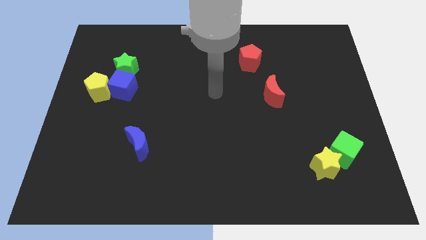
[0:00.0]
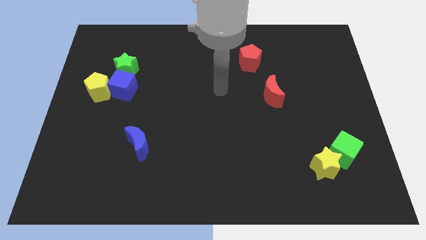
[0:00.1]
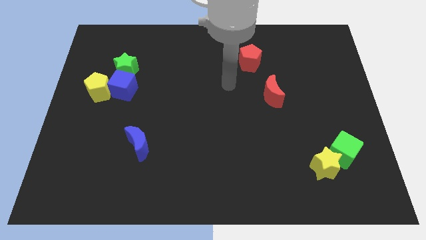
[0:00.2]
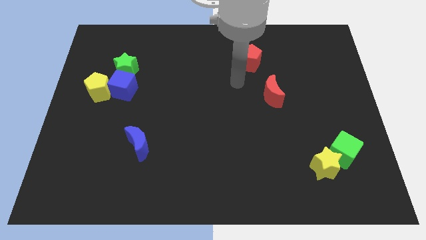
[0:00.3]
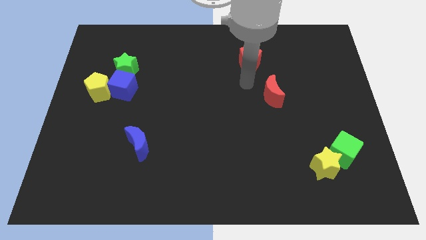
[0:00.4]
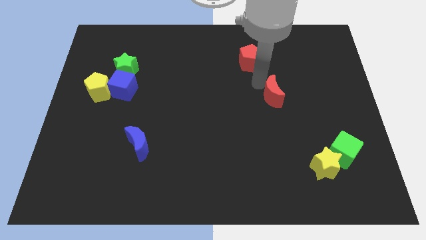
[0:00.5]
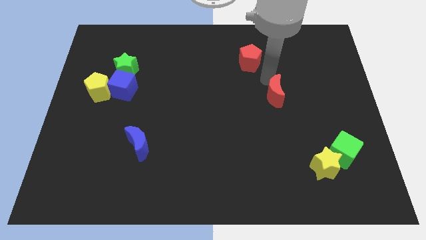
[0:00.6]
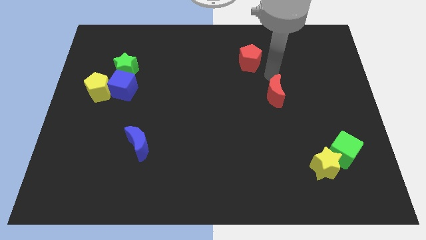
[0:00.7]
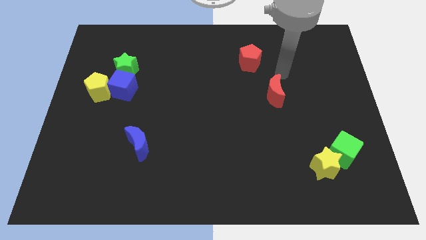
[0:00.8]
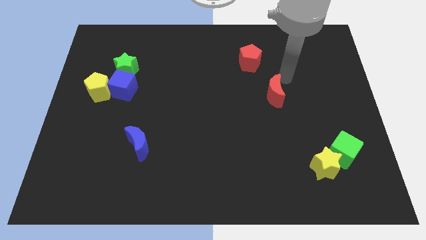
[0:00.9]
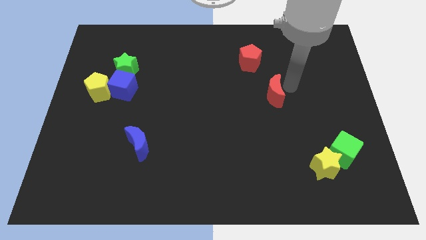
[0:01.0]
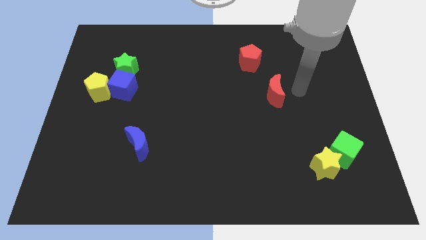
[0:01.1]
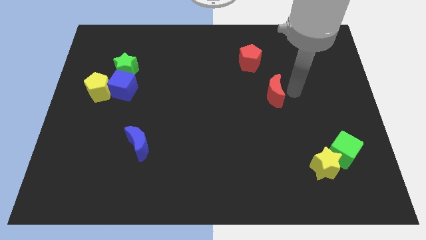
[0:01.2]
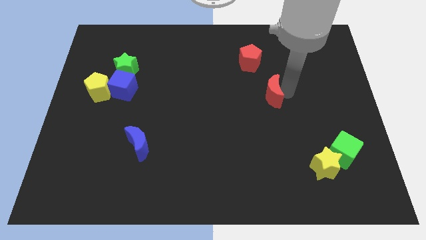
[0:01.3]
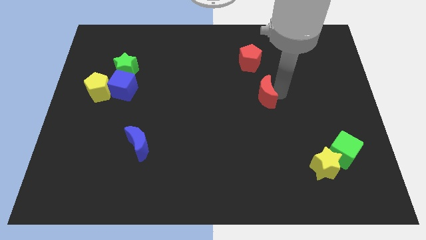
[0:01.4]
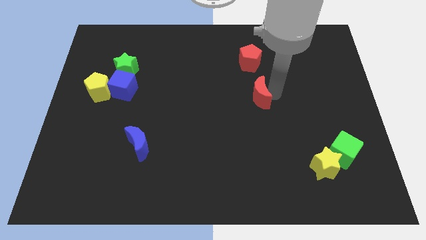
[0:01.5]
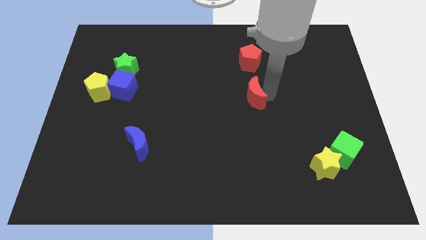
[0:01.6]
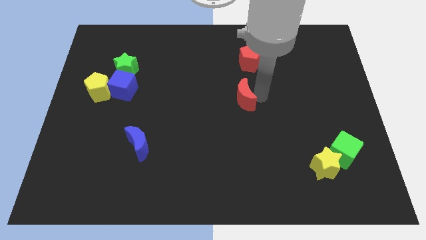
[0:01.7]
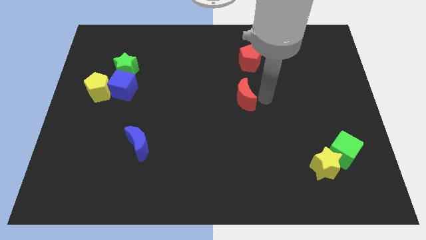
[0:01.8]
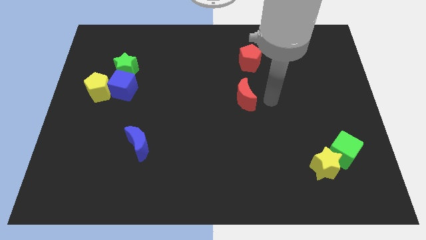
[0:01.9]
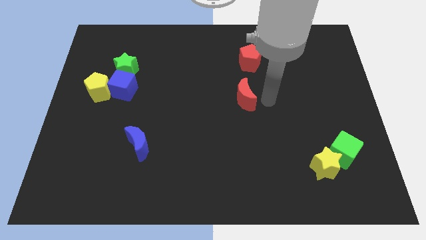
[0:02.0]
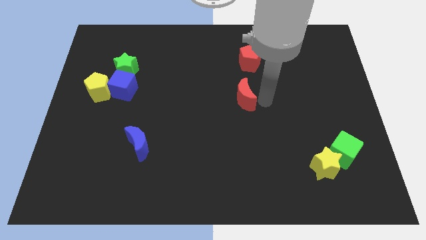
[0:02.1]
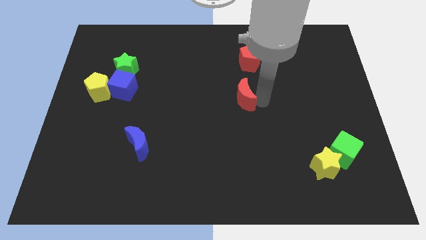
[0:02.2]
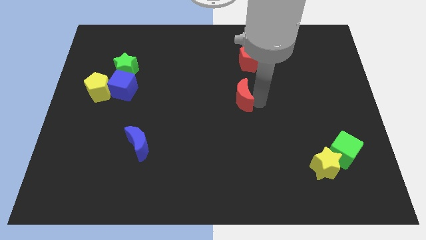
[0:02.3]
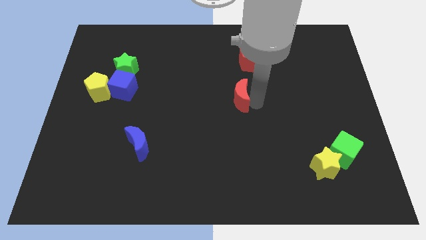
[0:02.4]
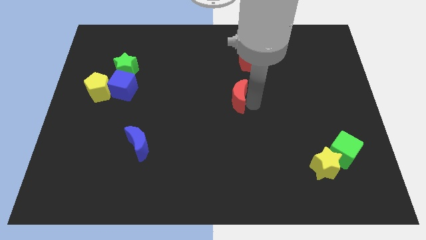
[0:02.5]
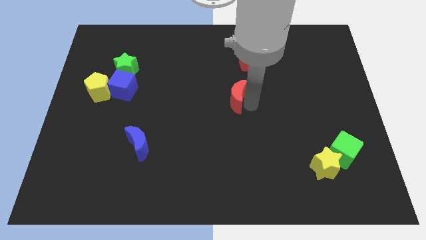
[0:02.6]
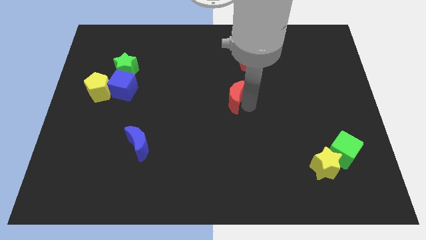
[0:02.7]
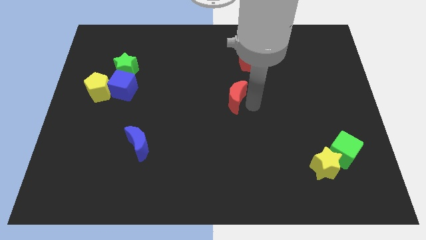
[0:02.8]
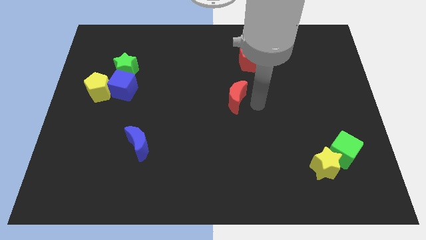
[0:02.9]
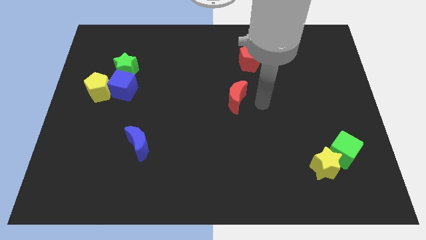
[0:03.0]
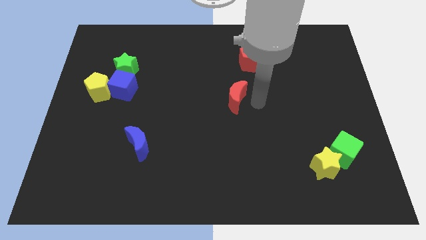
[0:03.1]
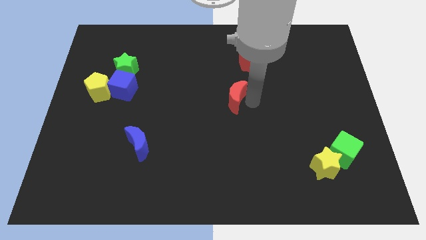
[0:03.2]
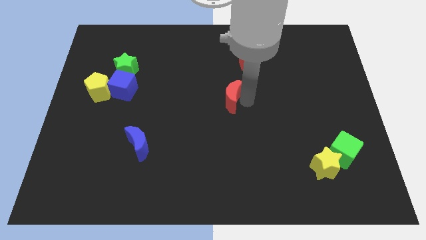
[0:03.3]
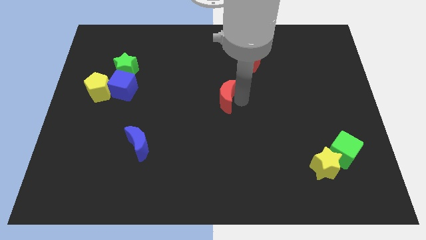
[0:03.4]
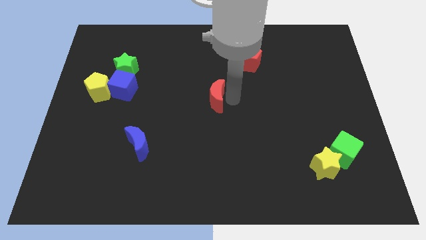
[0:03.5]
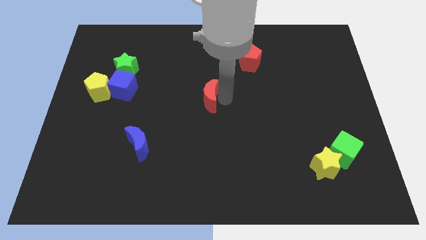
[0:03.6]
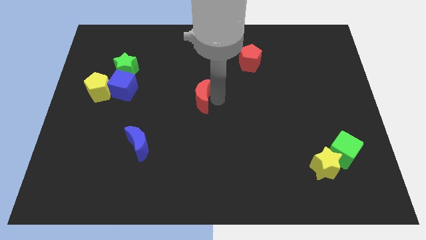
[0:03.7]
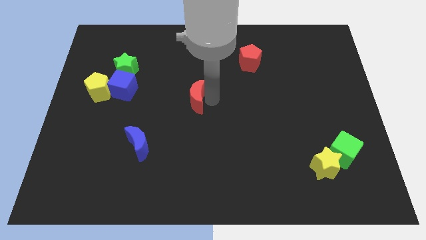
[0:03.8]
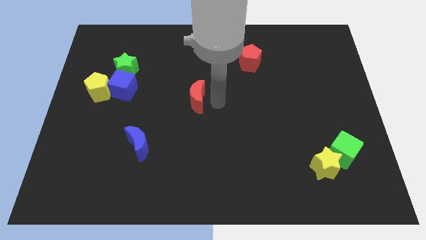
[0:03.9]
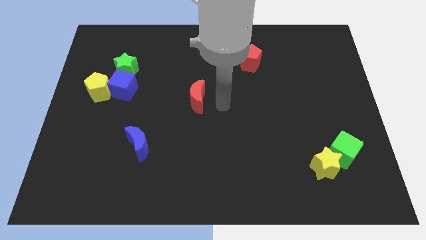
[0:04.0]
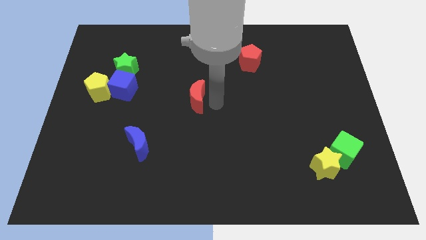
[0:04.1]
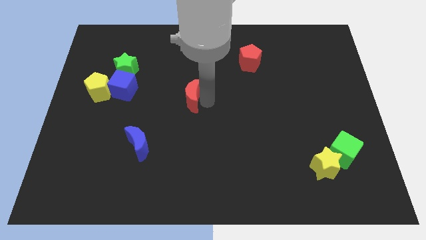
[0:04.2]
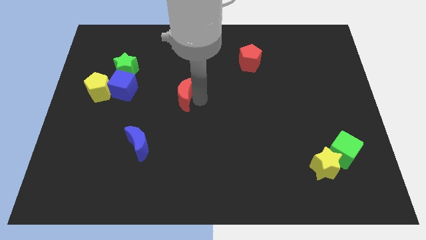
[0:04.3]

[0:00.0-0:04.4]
move the red moon left

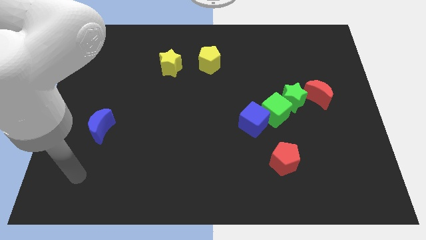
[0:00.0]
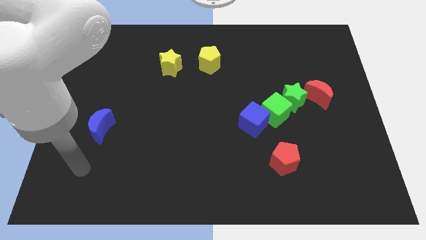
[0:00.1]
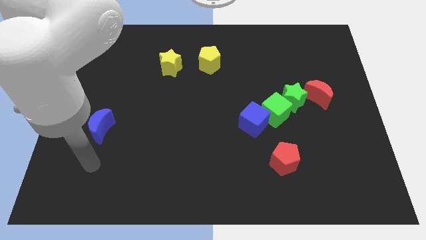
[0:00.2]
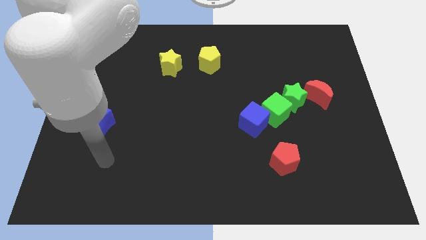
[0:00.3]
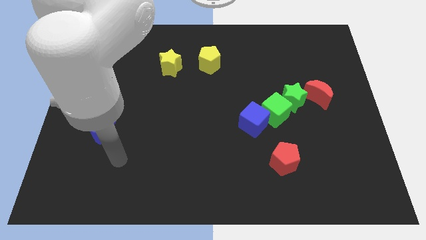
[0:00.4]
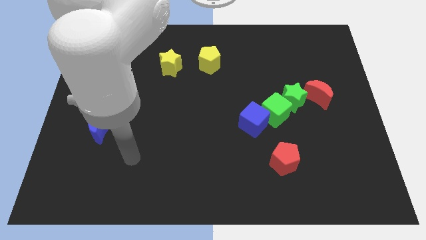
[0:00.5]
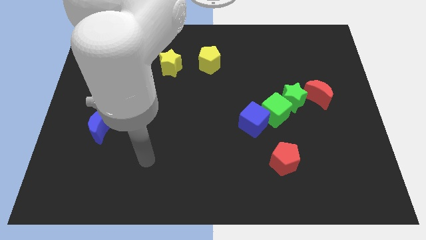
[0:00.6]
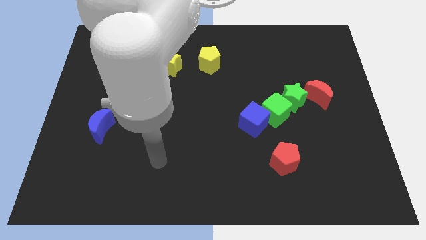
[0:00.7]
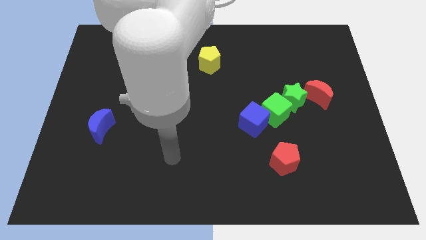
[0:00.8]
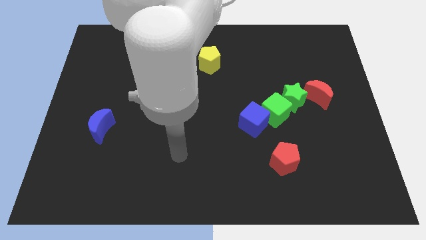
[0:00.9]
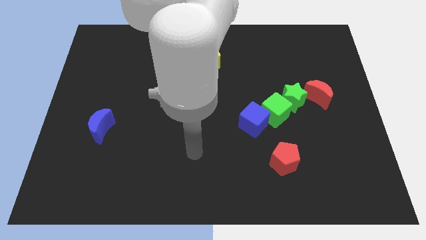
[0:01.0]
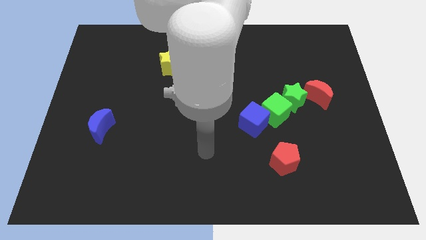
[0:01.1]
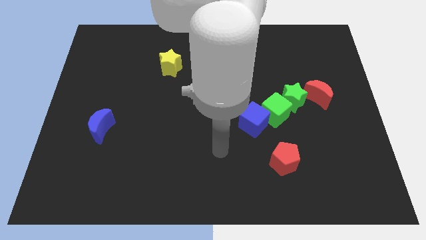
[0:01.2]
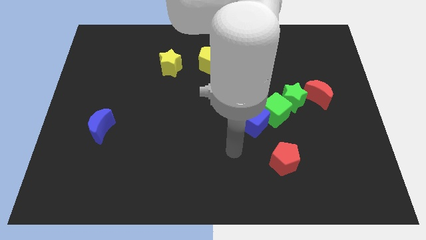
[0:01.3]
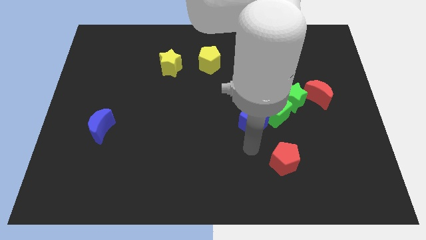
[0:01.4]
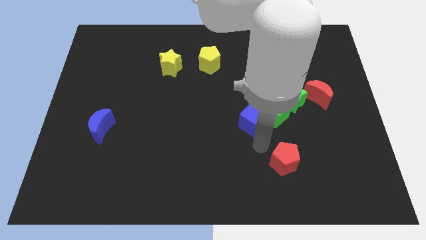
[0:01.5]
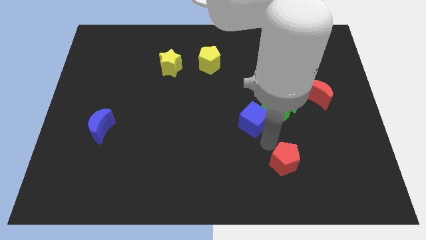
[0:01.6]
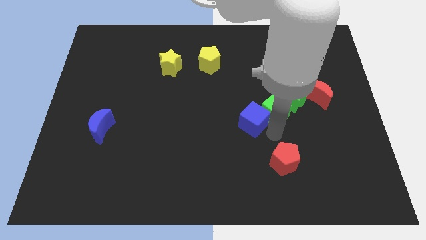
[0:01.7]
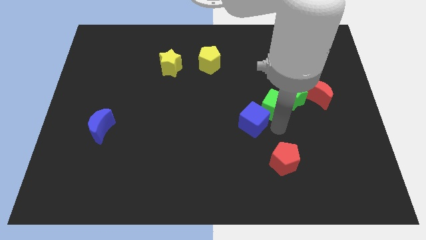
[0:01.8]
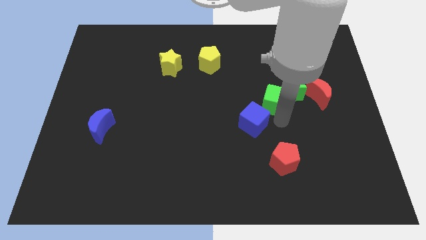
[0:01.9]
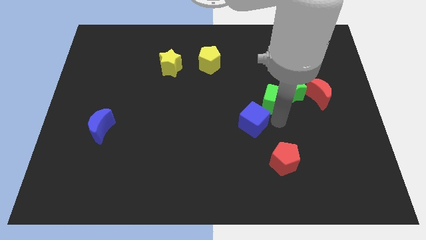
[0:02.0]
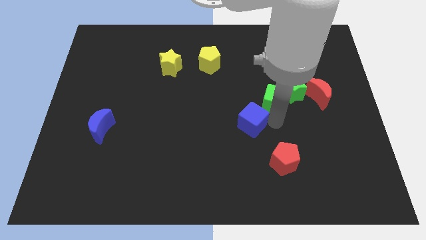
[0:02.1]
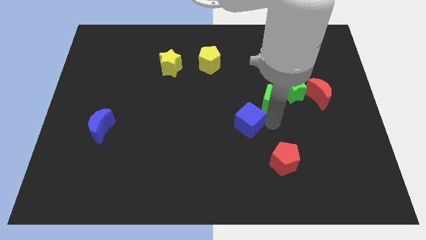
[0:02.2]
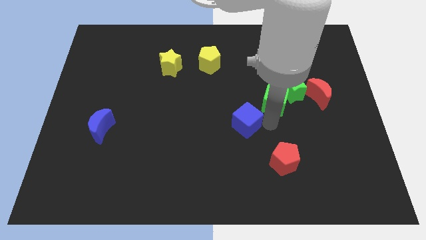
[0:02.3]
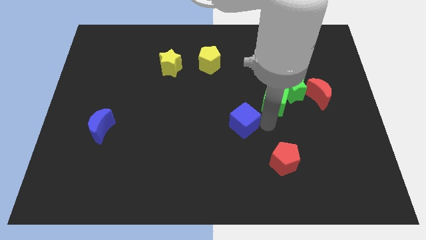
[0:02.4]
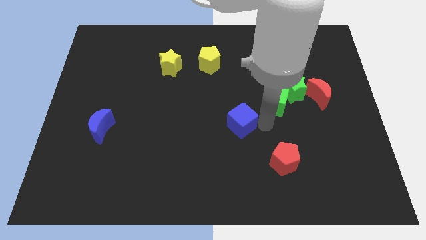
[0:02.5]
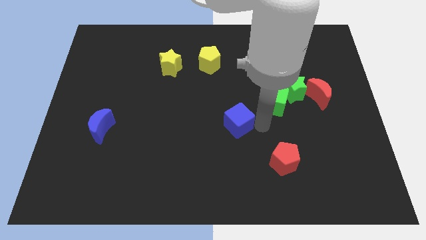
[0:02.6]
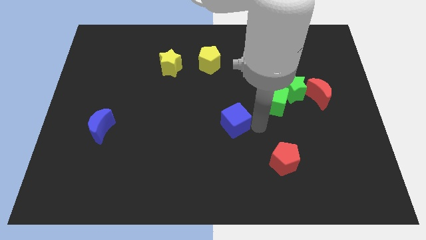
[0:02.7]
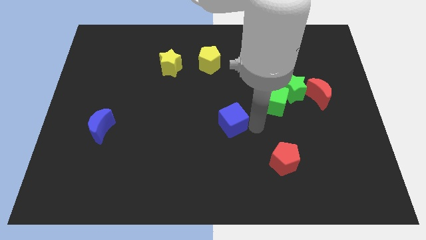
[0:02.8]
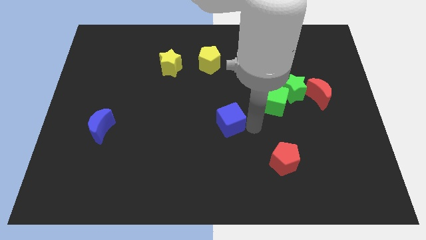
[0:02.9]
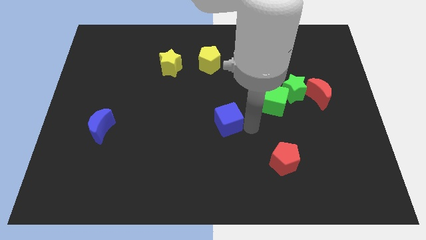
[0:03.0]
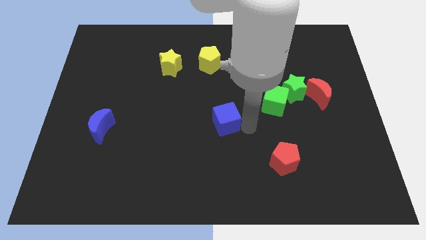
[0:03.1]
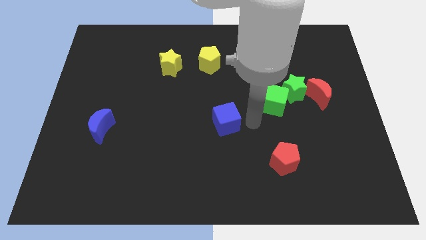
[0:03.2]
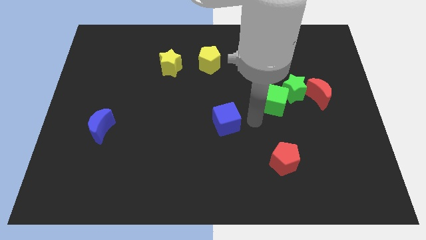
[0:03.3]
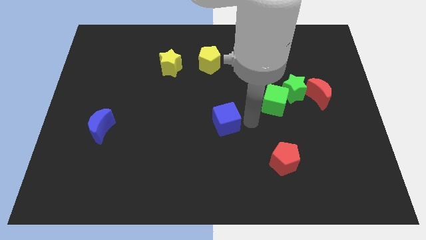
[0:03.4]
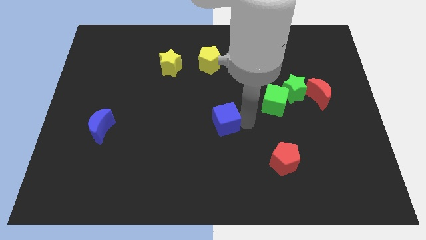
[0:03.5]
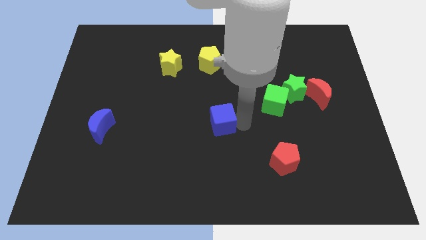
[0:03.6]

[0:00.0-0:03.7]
push the blue cube a little left
